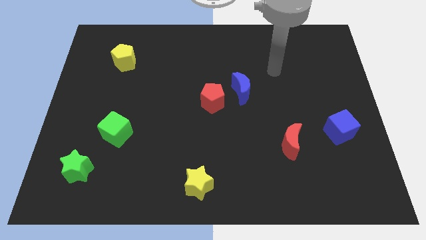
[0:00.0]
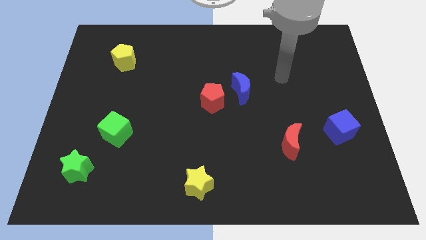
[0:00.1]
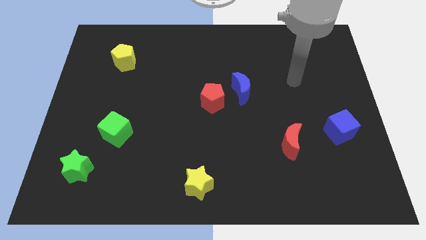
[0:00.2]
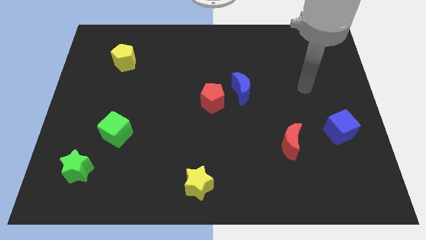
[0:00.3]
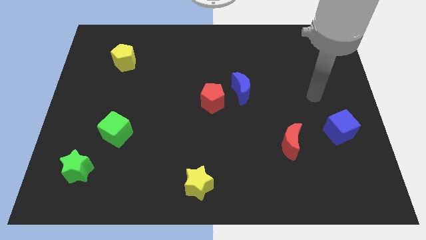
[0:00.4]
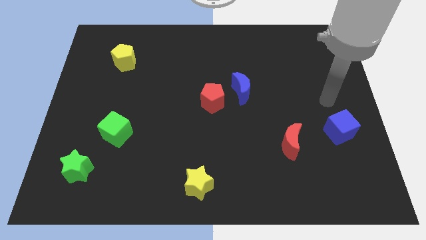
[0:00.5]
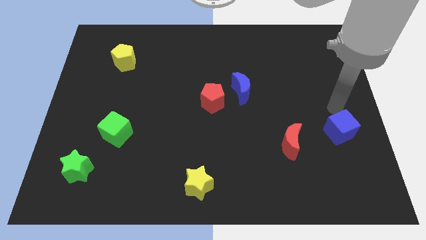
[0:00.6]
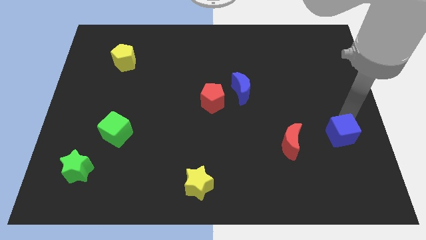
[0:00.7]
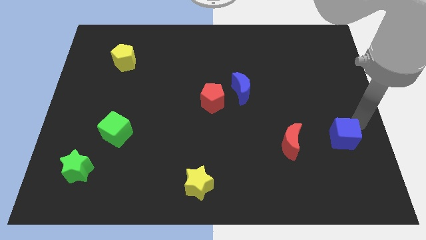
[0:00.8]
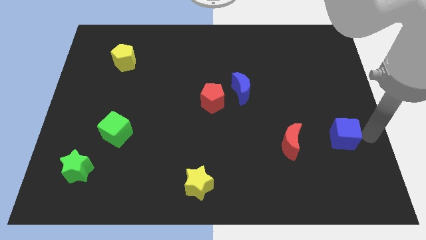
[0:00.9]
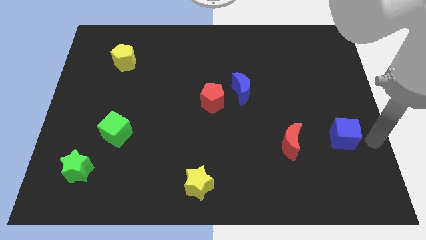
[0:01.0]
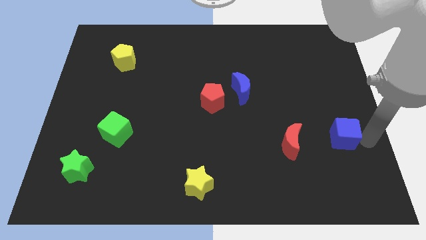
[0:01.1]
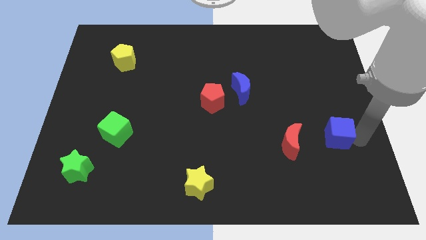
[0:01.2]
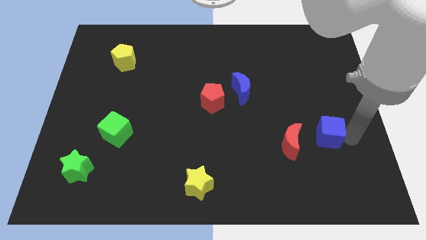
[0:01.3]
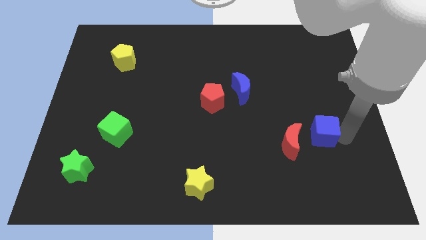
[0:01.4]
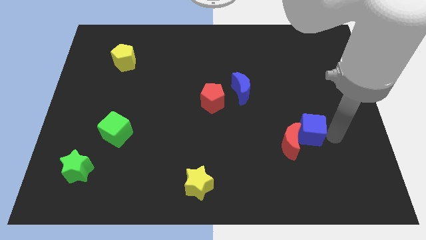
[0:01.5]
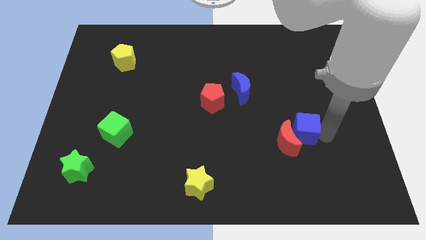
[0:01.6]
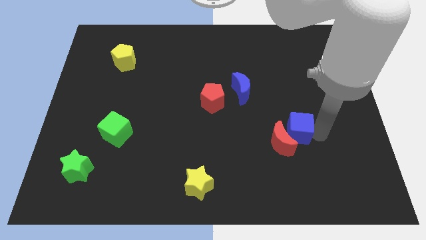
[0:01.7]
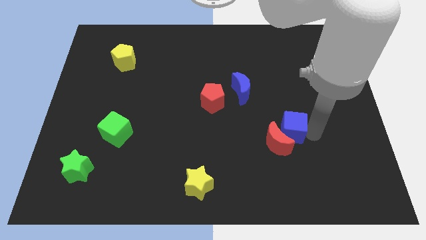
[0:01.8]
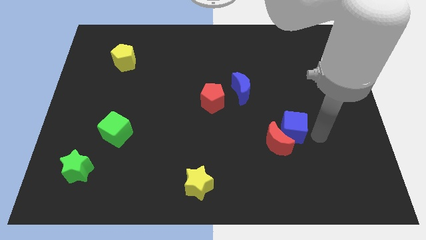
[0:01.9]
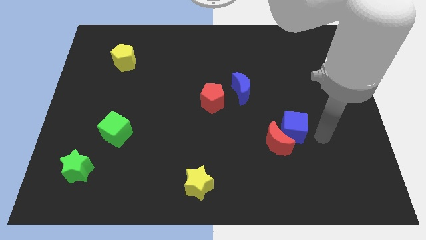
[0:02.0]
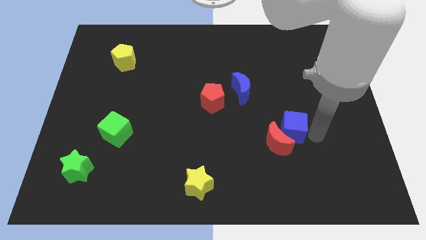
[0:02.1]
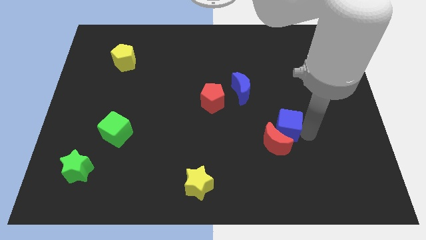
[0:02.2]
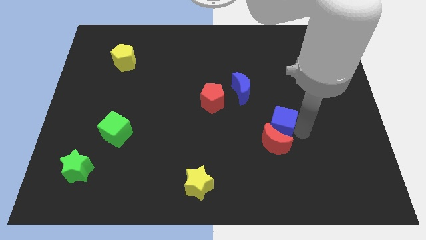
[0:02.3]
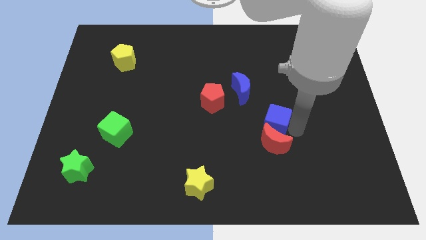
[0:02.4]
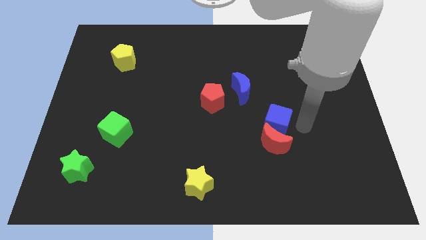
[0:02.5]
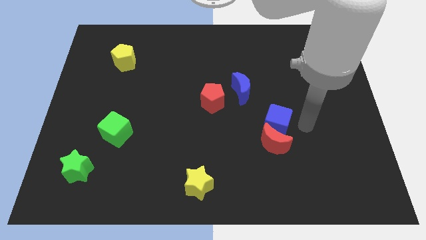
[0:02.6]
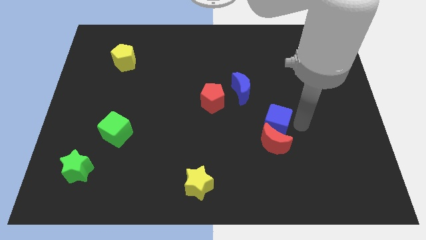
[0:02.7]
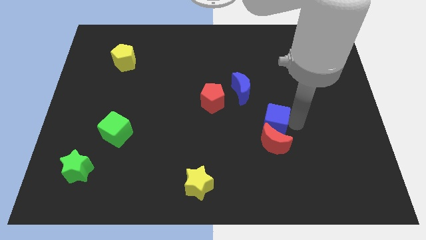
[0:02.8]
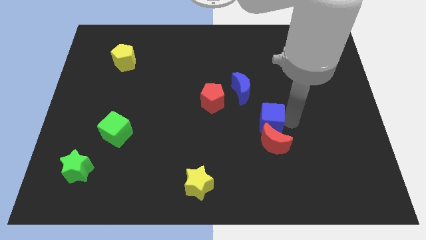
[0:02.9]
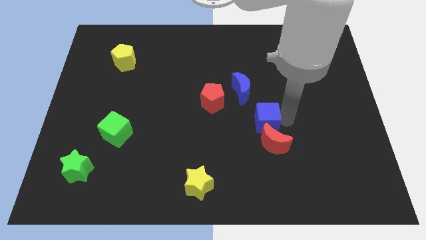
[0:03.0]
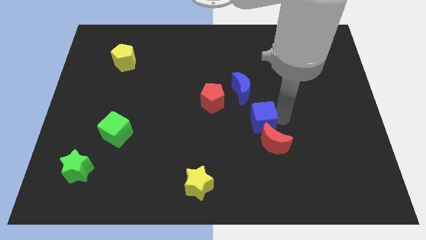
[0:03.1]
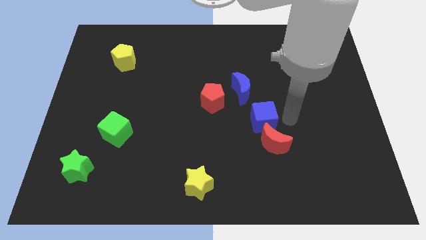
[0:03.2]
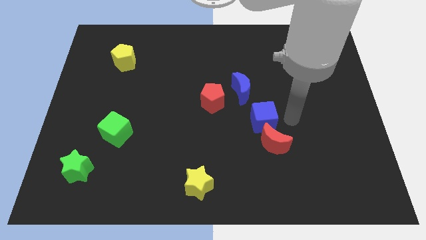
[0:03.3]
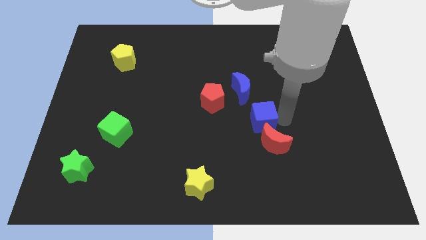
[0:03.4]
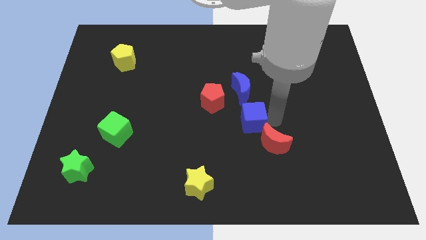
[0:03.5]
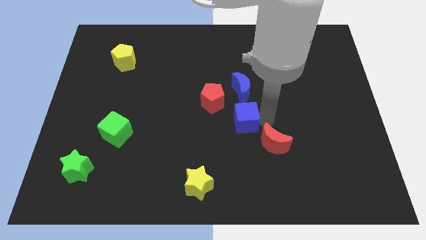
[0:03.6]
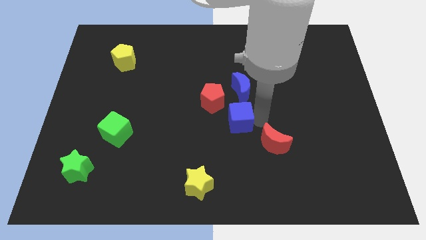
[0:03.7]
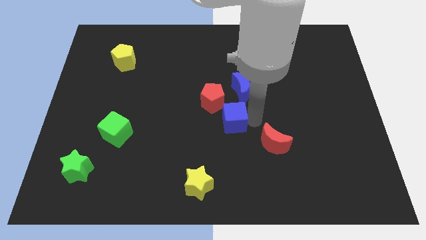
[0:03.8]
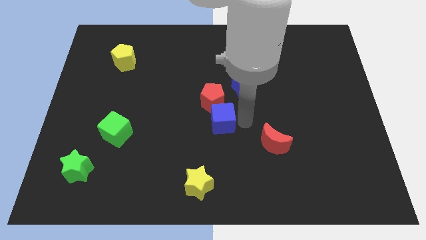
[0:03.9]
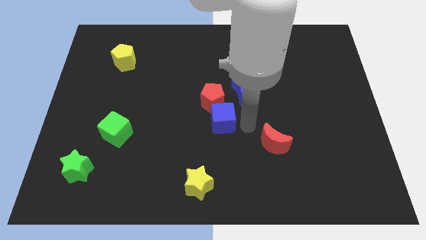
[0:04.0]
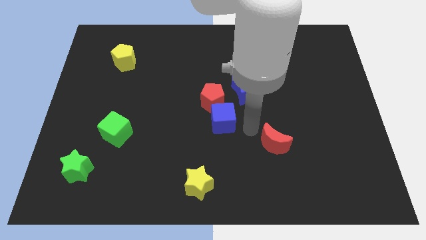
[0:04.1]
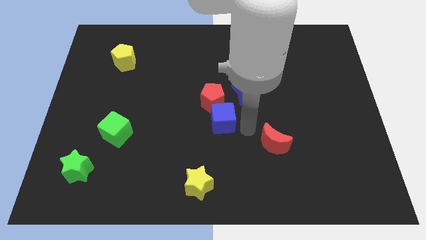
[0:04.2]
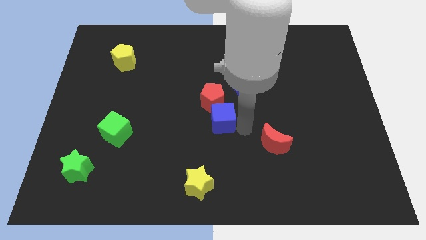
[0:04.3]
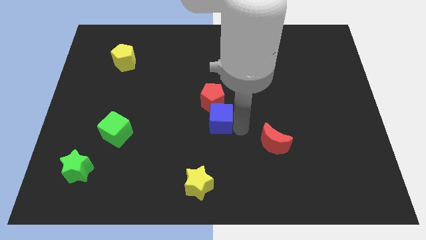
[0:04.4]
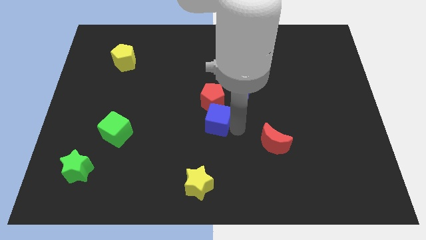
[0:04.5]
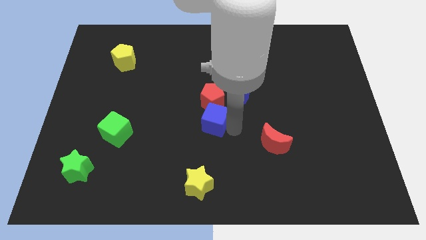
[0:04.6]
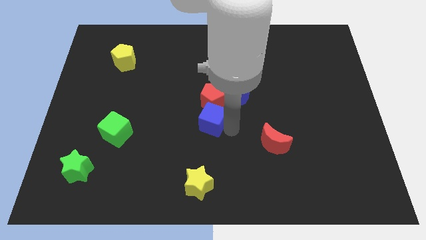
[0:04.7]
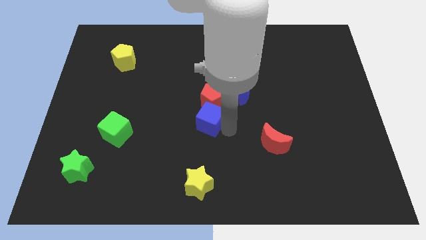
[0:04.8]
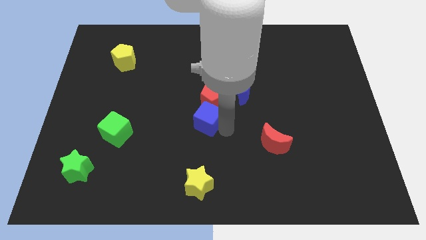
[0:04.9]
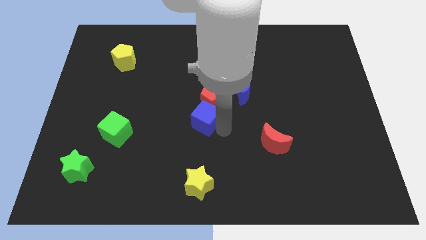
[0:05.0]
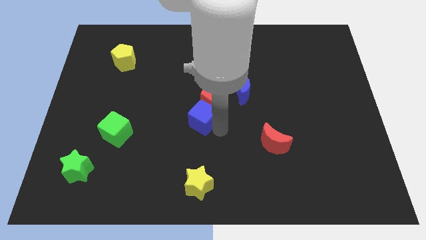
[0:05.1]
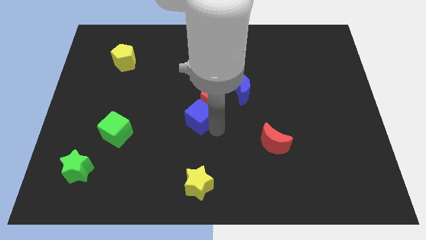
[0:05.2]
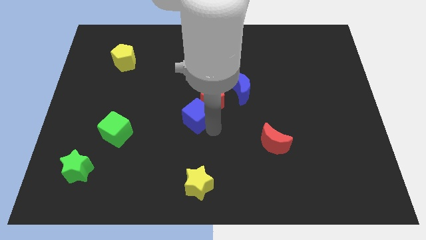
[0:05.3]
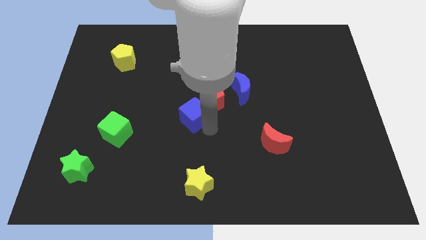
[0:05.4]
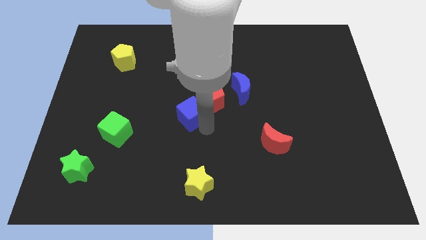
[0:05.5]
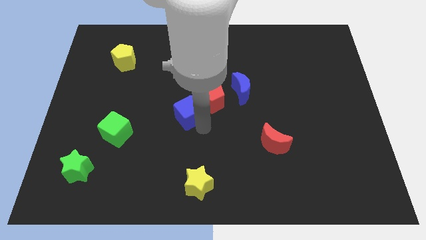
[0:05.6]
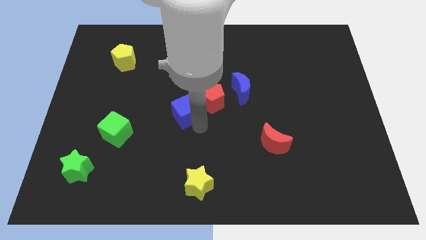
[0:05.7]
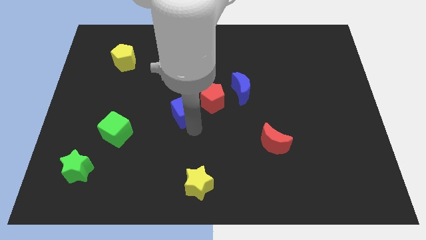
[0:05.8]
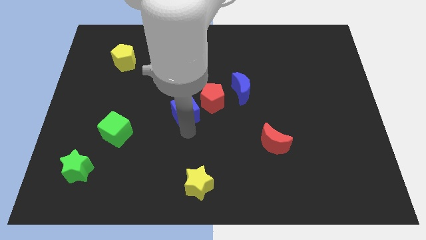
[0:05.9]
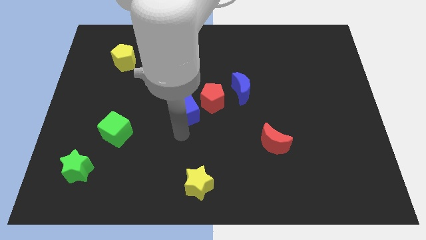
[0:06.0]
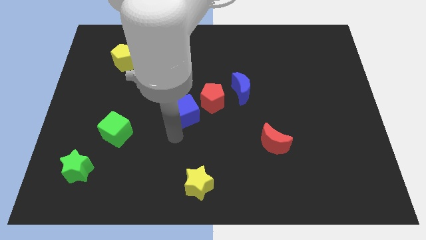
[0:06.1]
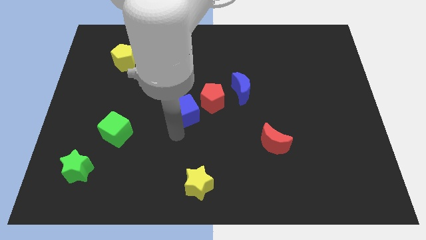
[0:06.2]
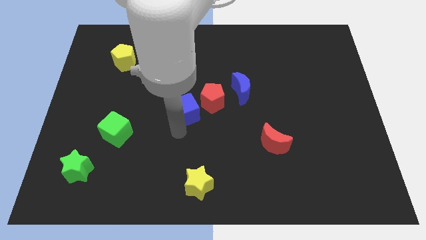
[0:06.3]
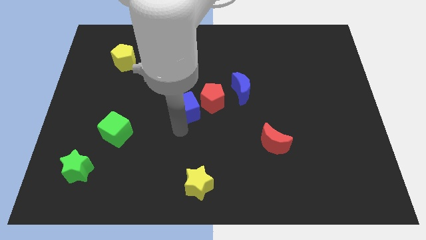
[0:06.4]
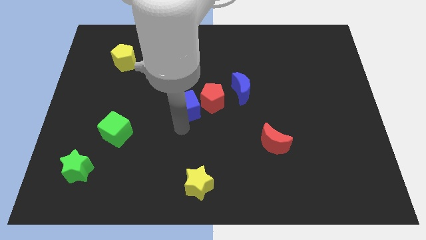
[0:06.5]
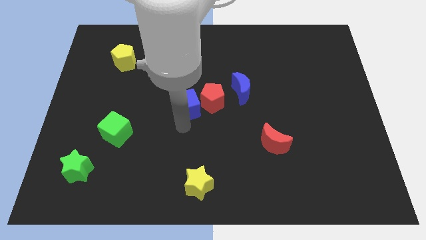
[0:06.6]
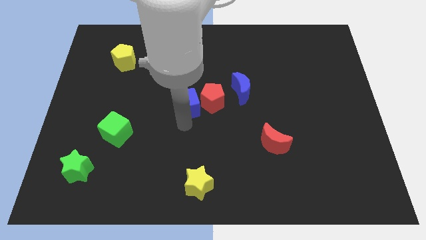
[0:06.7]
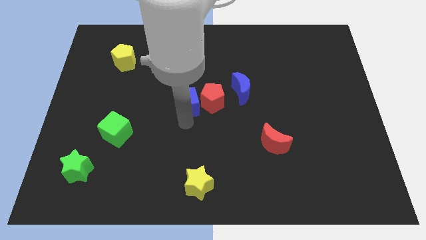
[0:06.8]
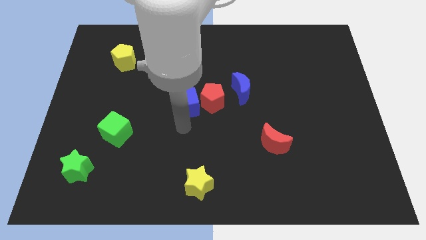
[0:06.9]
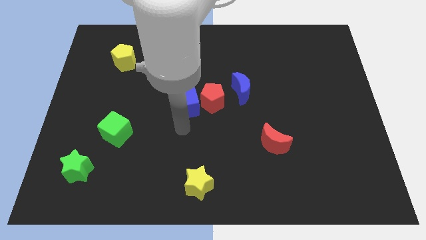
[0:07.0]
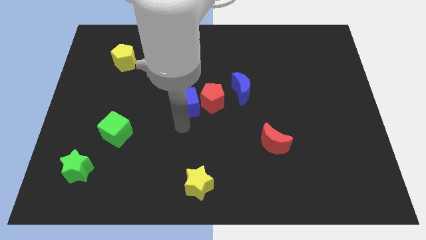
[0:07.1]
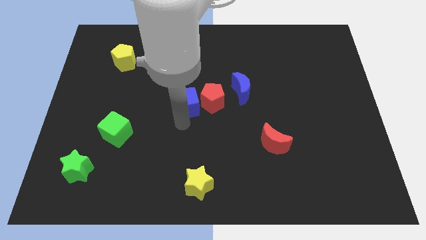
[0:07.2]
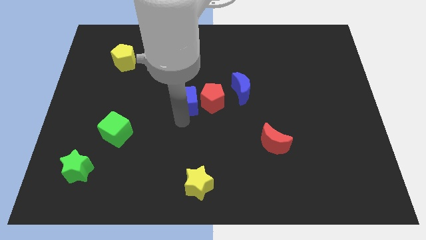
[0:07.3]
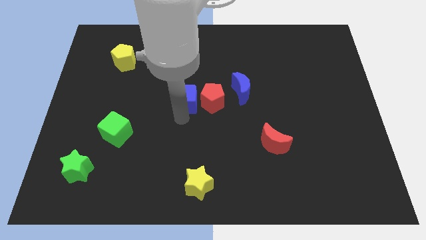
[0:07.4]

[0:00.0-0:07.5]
put the blue cube to the top left side of the red pentagon

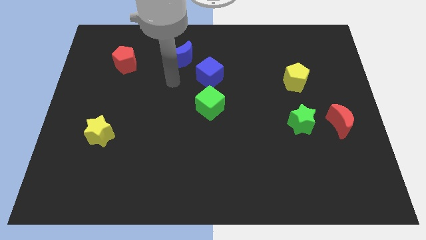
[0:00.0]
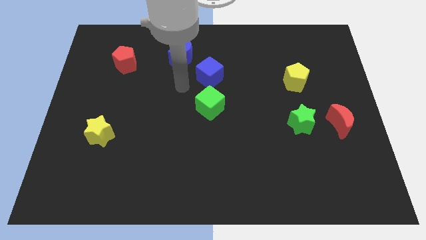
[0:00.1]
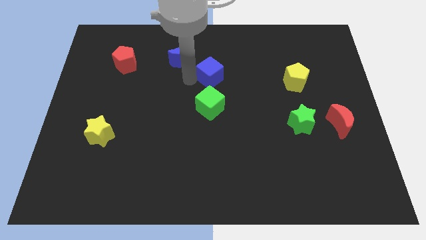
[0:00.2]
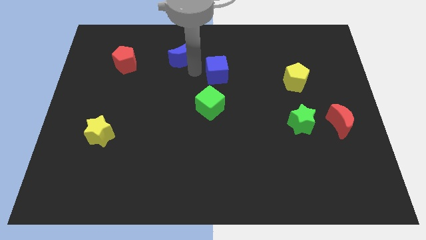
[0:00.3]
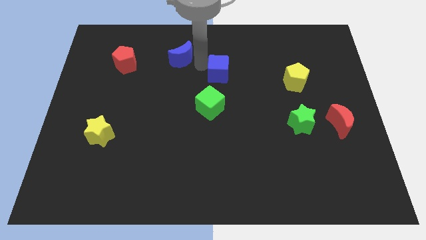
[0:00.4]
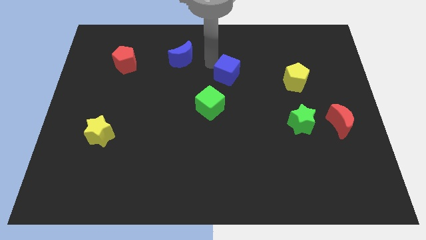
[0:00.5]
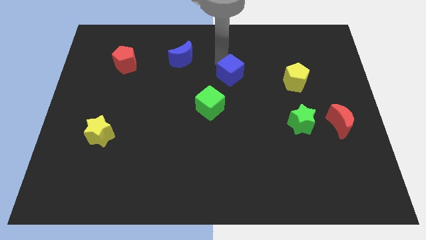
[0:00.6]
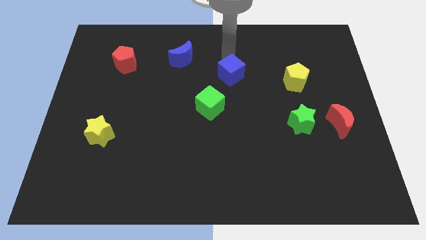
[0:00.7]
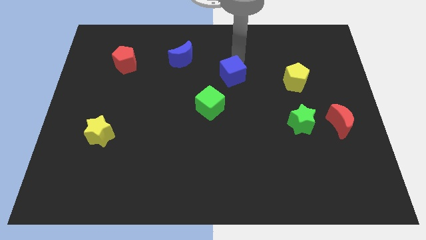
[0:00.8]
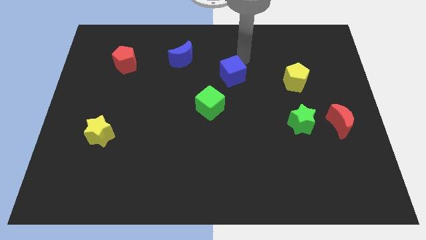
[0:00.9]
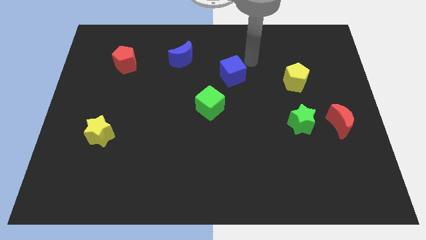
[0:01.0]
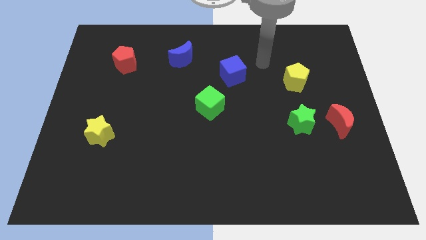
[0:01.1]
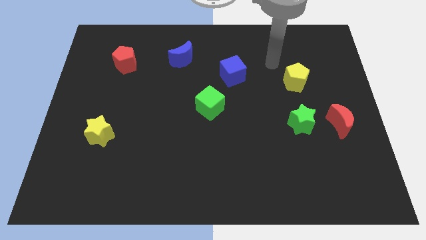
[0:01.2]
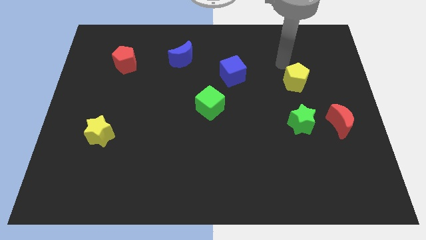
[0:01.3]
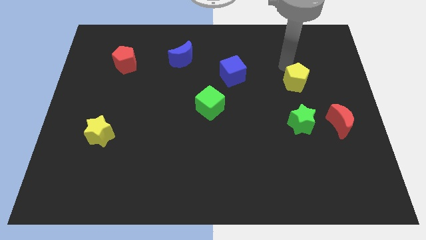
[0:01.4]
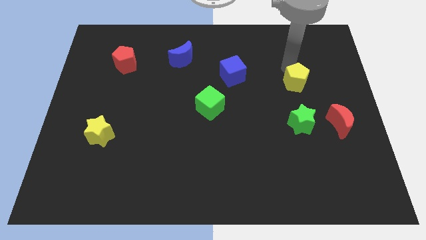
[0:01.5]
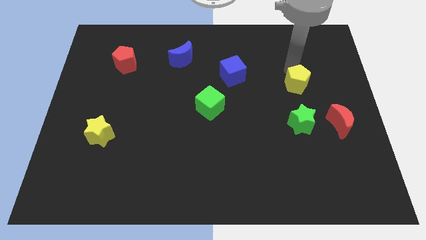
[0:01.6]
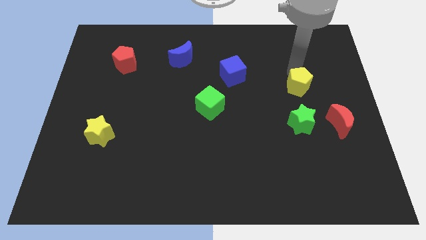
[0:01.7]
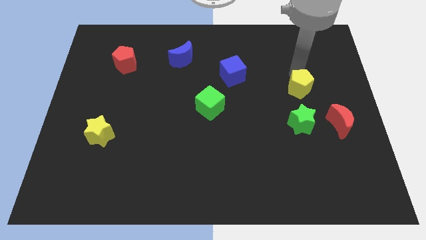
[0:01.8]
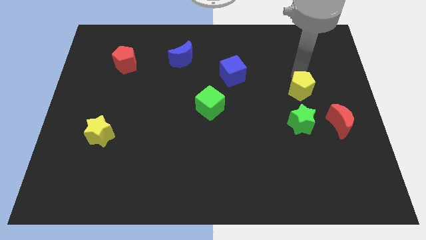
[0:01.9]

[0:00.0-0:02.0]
move the yellow pentagon to the top left side of the red moon
